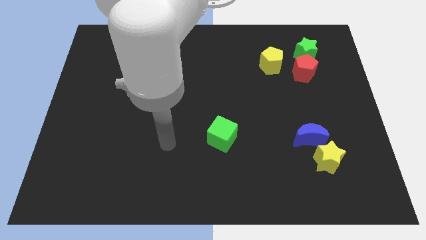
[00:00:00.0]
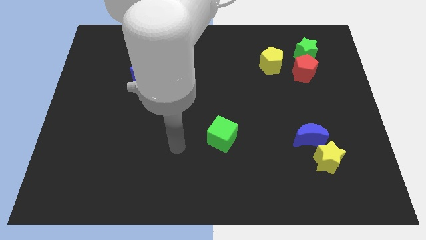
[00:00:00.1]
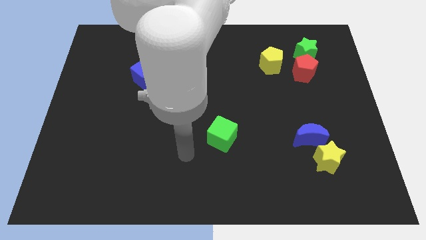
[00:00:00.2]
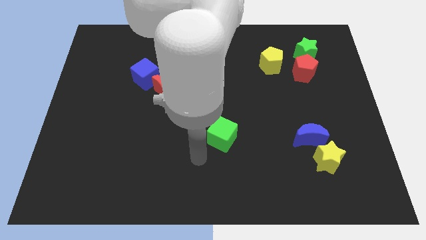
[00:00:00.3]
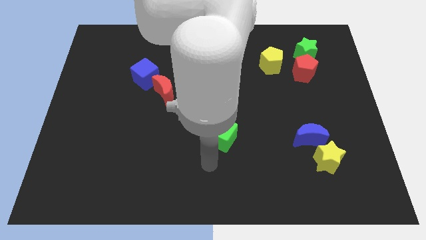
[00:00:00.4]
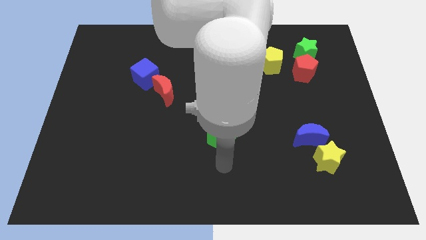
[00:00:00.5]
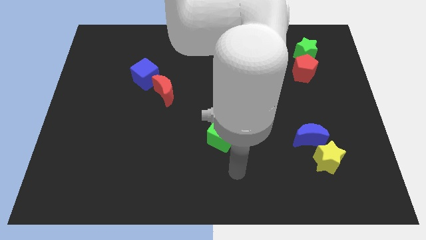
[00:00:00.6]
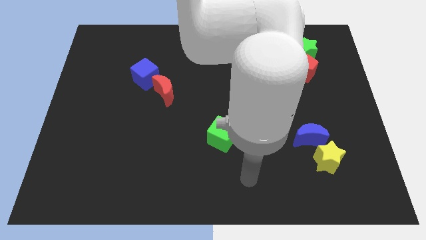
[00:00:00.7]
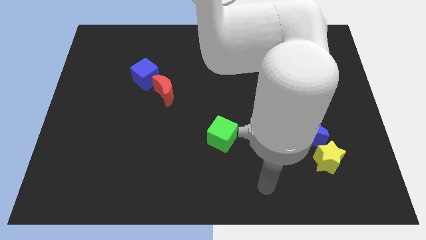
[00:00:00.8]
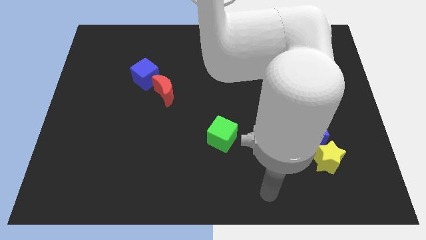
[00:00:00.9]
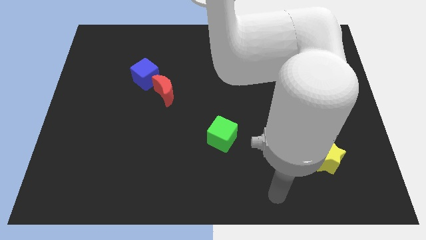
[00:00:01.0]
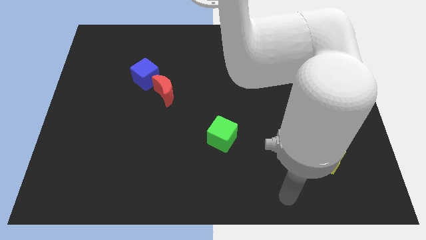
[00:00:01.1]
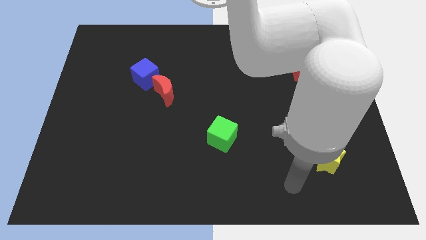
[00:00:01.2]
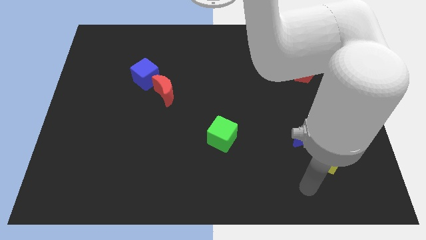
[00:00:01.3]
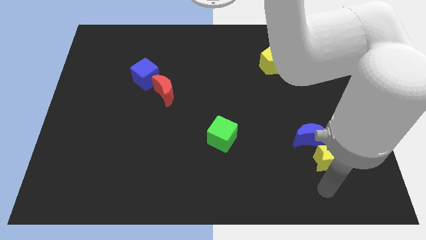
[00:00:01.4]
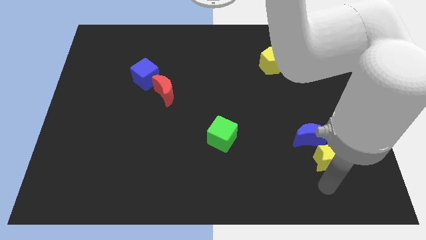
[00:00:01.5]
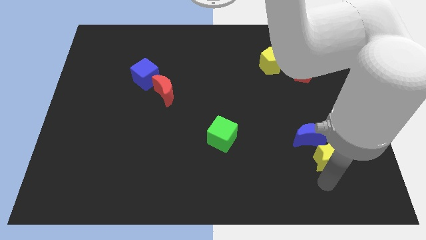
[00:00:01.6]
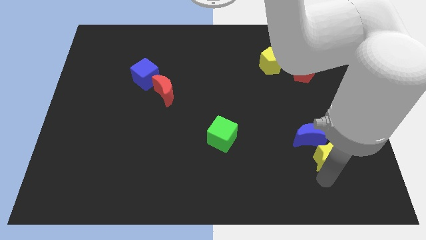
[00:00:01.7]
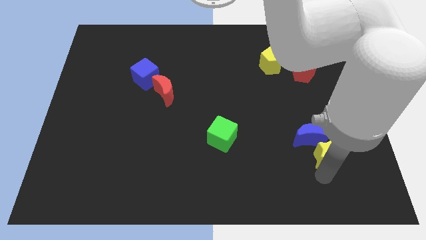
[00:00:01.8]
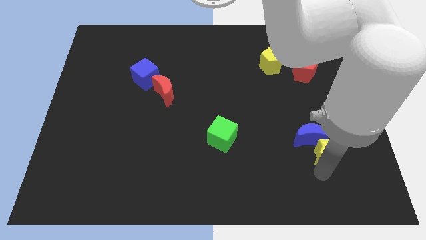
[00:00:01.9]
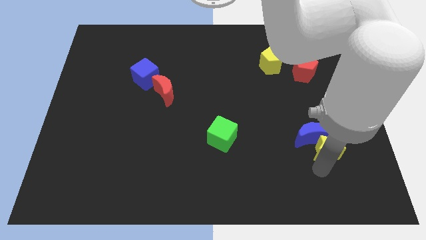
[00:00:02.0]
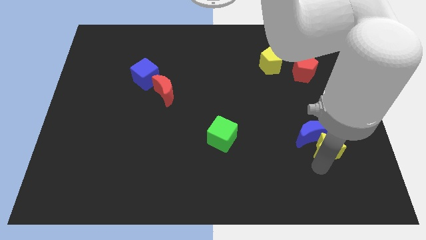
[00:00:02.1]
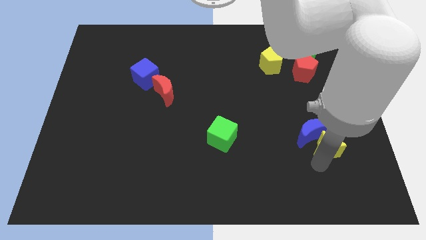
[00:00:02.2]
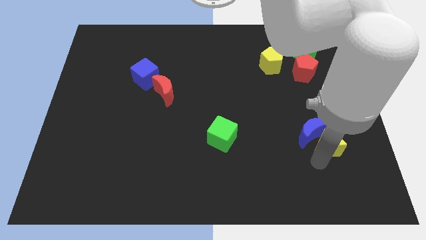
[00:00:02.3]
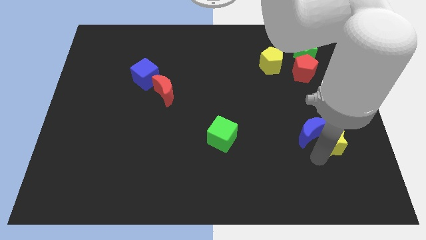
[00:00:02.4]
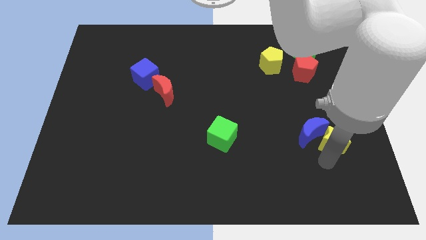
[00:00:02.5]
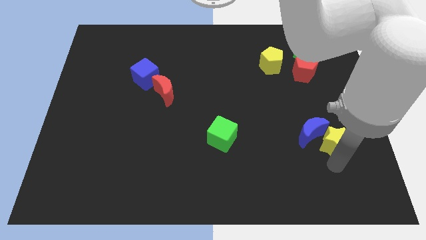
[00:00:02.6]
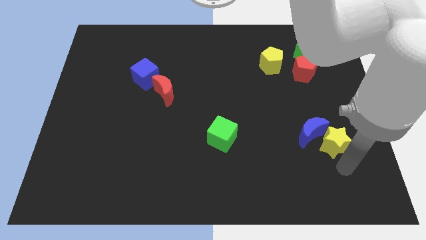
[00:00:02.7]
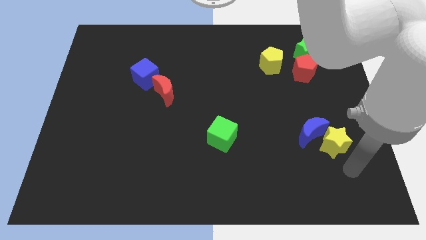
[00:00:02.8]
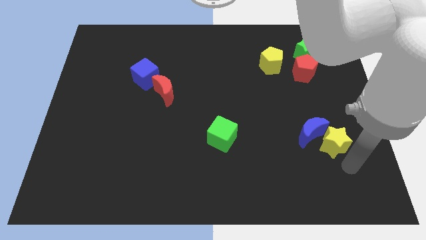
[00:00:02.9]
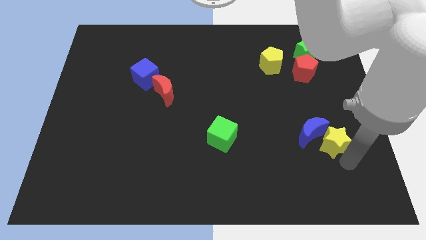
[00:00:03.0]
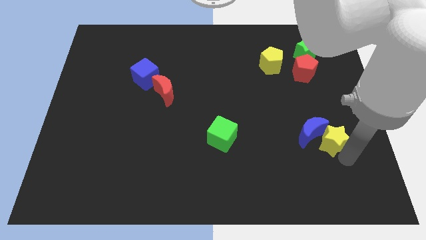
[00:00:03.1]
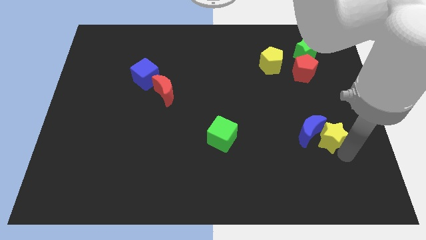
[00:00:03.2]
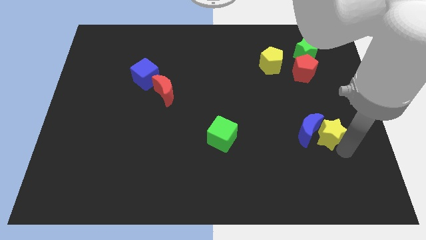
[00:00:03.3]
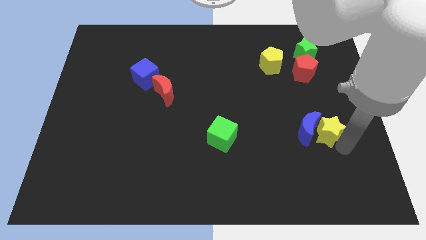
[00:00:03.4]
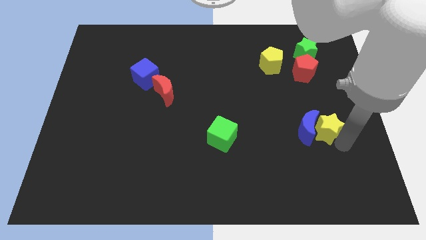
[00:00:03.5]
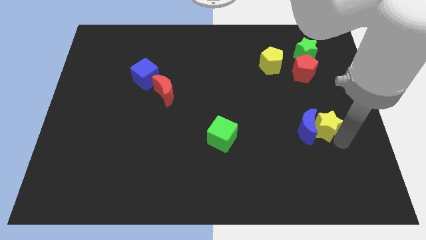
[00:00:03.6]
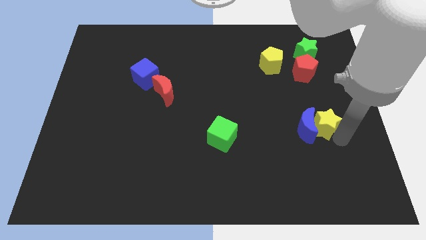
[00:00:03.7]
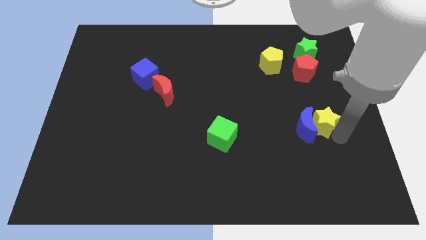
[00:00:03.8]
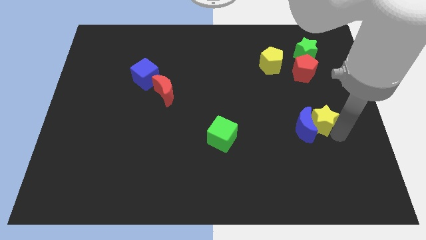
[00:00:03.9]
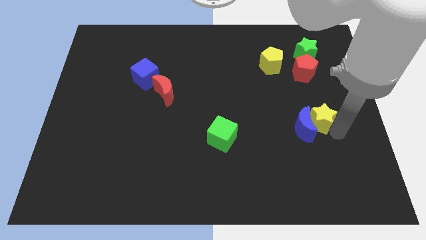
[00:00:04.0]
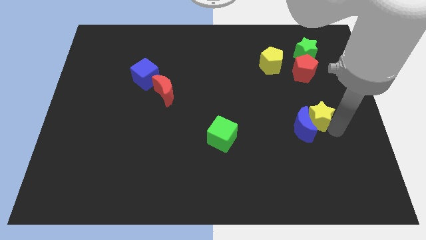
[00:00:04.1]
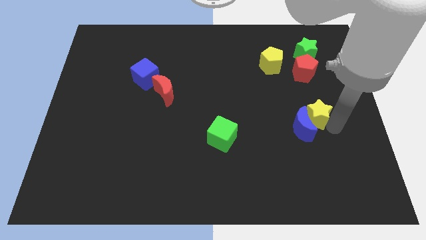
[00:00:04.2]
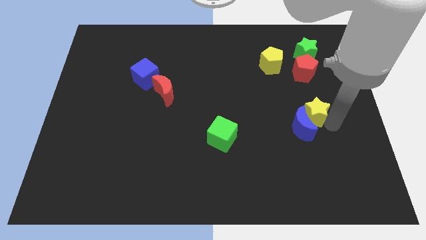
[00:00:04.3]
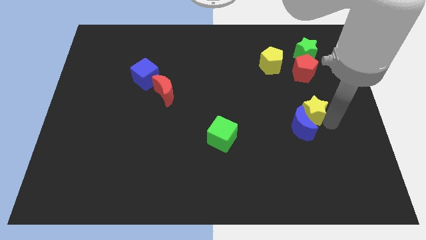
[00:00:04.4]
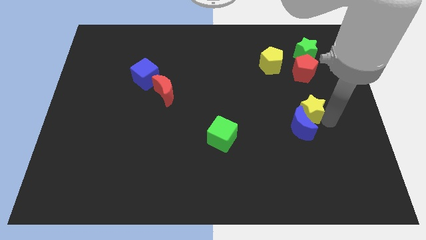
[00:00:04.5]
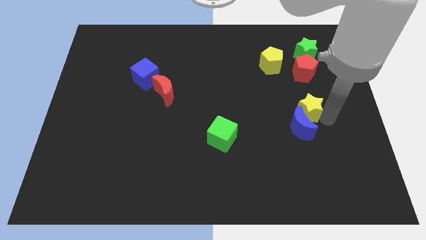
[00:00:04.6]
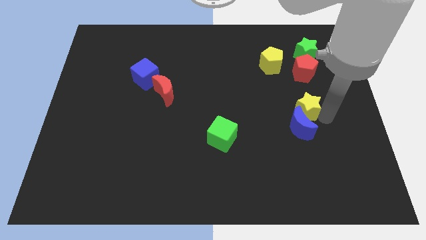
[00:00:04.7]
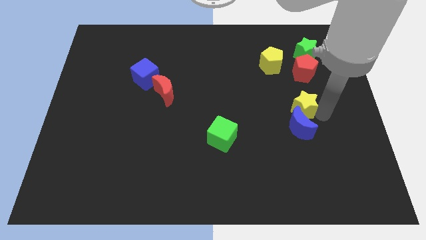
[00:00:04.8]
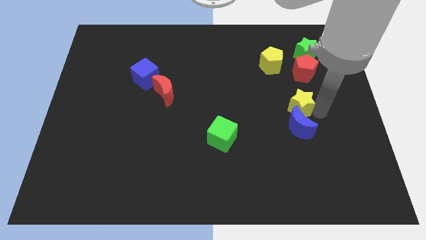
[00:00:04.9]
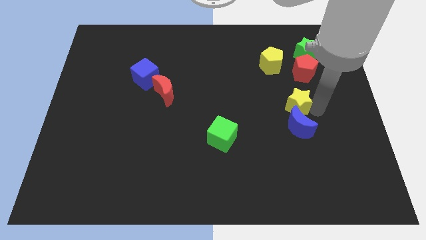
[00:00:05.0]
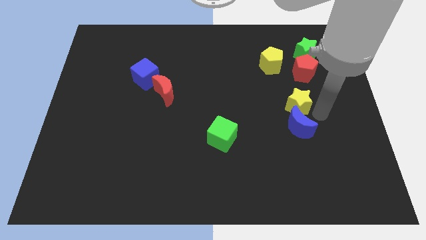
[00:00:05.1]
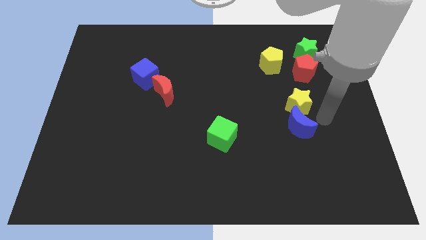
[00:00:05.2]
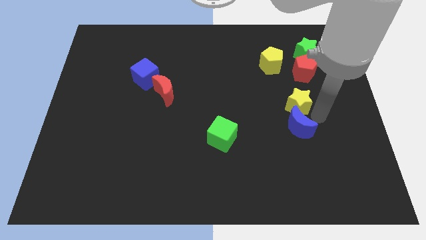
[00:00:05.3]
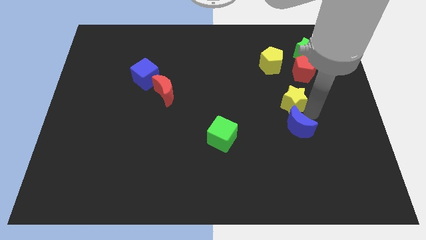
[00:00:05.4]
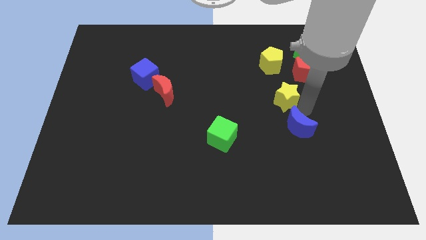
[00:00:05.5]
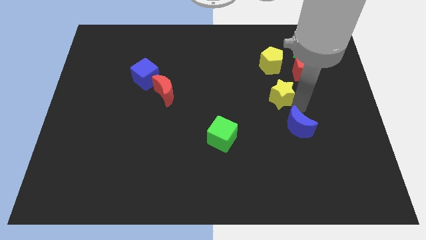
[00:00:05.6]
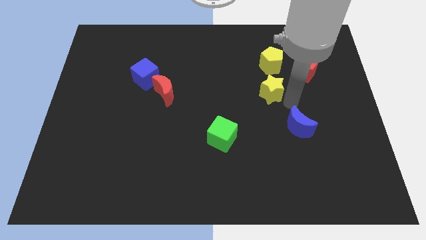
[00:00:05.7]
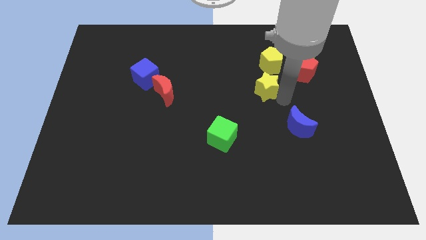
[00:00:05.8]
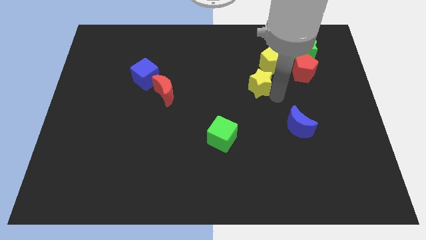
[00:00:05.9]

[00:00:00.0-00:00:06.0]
move the yellow star to the bottom left side of the yellow pentagon

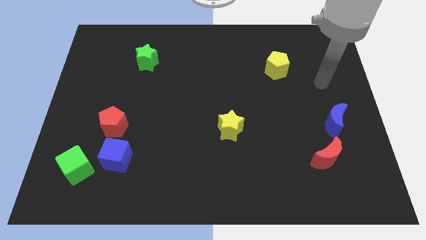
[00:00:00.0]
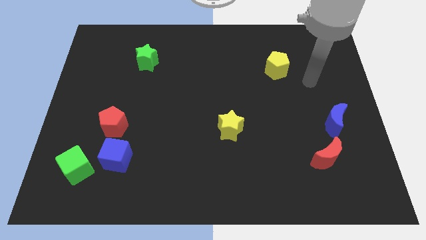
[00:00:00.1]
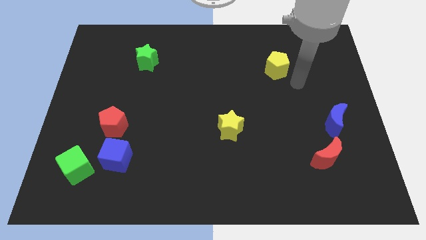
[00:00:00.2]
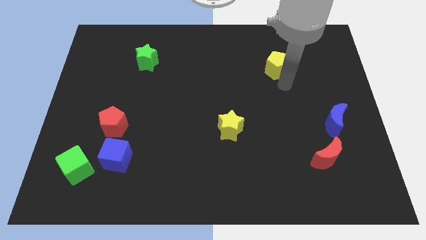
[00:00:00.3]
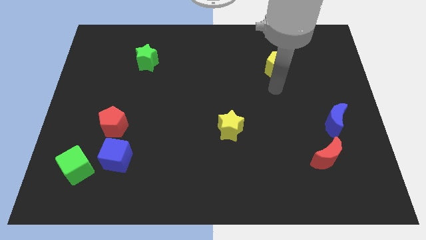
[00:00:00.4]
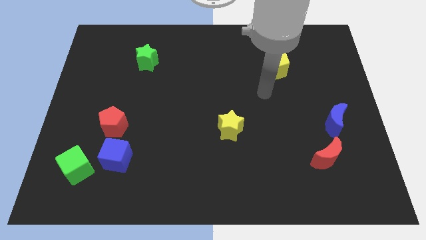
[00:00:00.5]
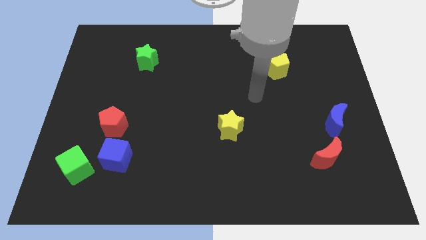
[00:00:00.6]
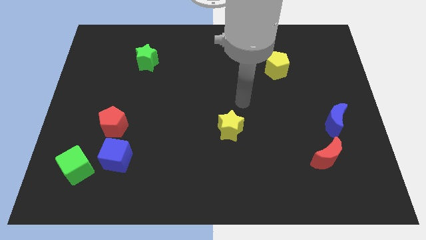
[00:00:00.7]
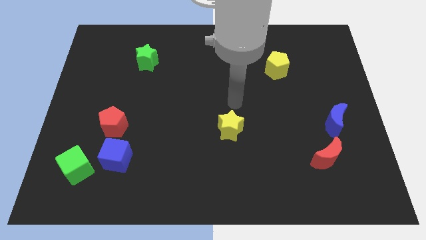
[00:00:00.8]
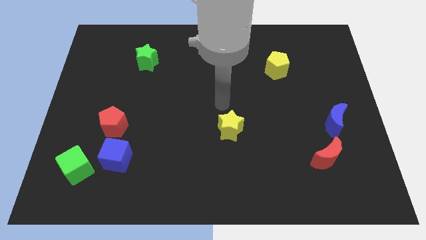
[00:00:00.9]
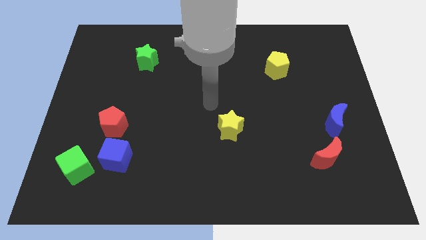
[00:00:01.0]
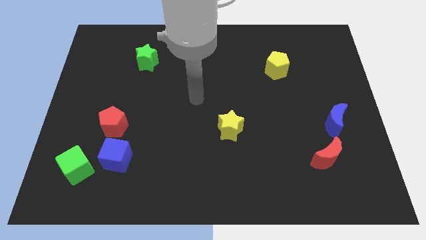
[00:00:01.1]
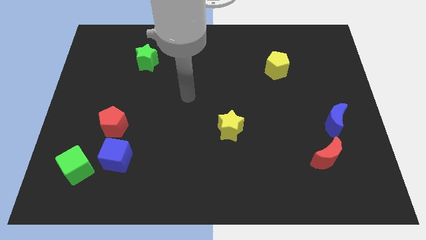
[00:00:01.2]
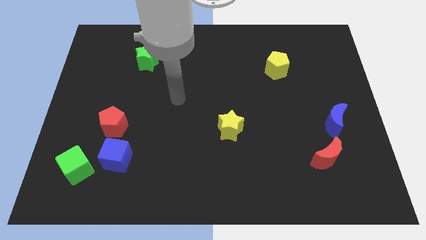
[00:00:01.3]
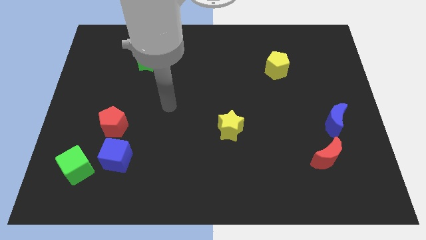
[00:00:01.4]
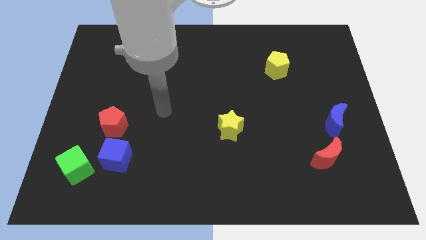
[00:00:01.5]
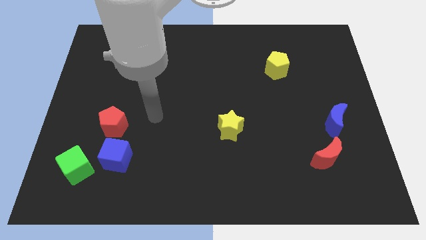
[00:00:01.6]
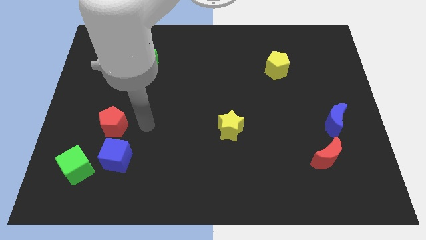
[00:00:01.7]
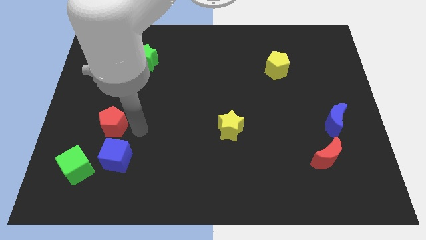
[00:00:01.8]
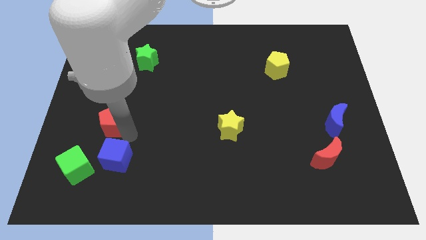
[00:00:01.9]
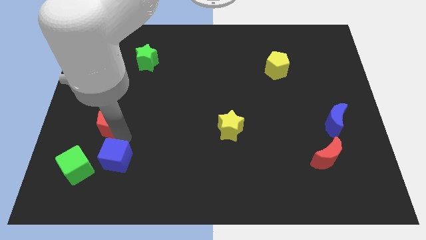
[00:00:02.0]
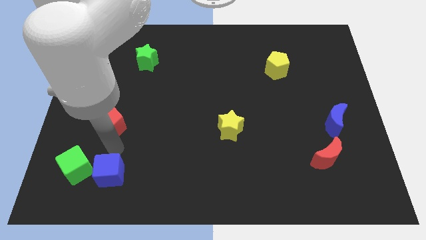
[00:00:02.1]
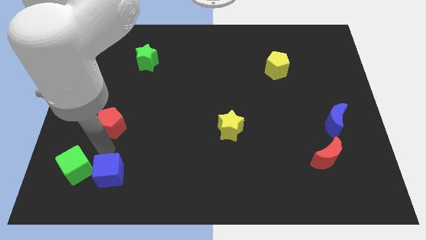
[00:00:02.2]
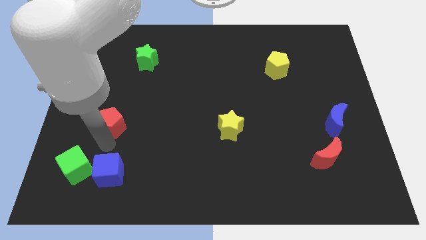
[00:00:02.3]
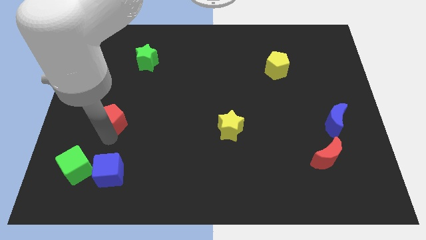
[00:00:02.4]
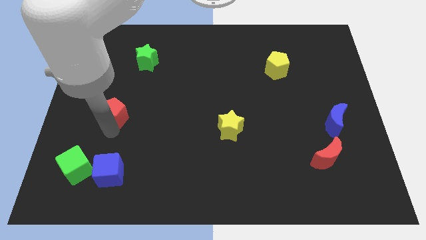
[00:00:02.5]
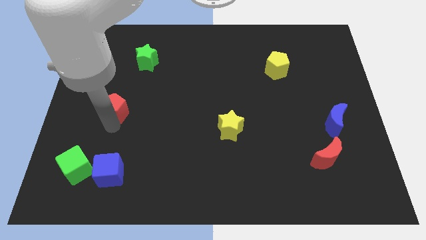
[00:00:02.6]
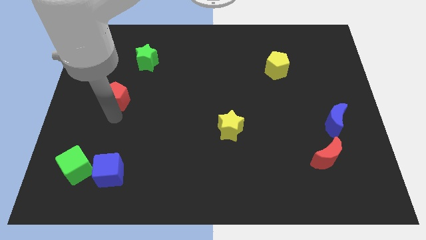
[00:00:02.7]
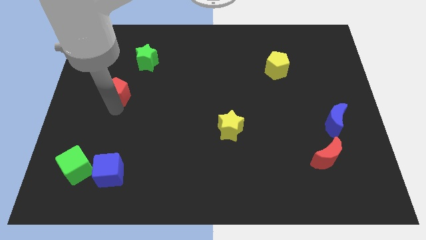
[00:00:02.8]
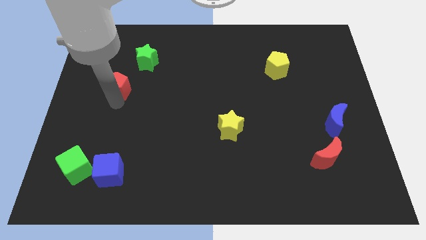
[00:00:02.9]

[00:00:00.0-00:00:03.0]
move the red pentagon to the bottom left of the green star
